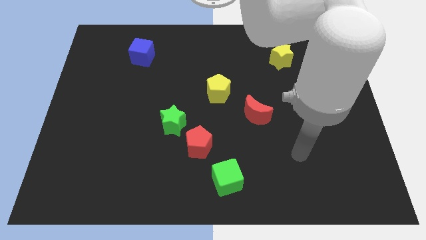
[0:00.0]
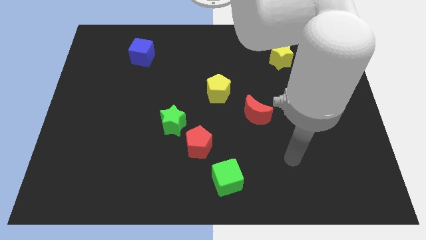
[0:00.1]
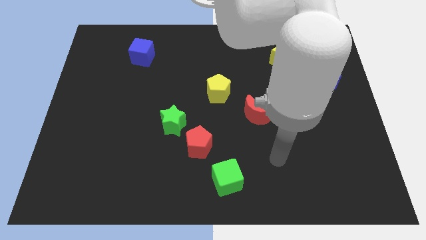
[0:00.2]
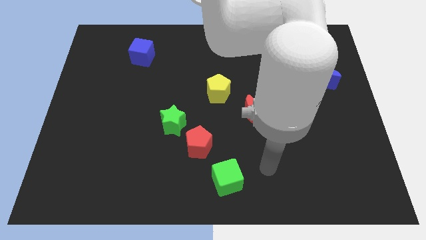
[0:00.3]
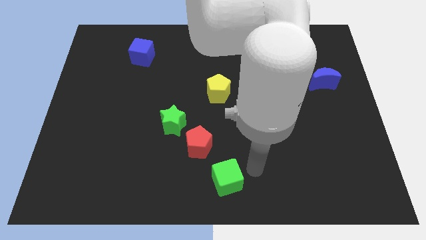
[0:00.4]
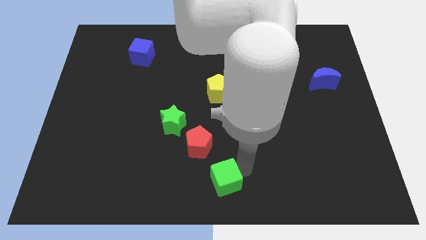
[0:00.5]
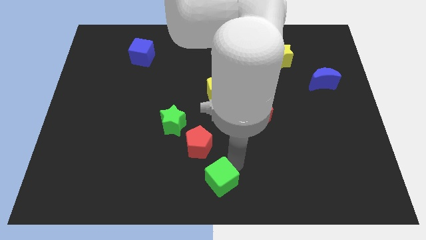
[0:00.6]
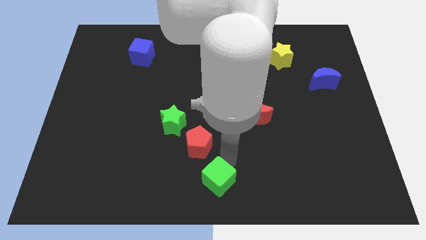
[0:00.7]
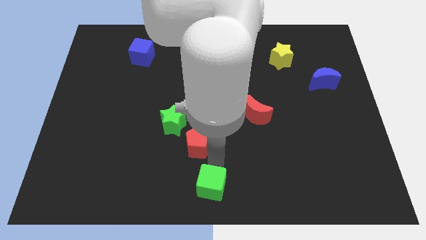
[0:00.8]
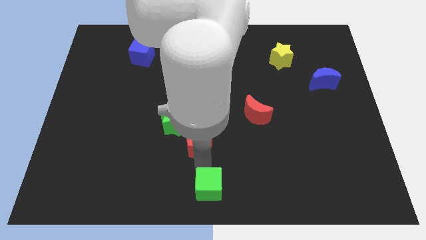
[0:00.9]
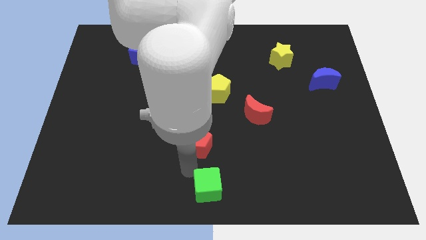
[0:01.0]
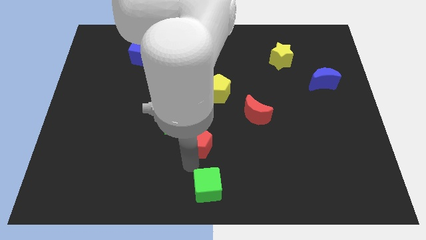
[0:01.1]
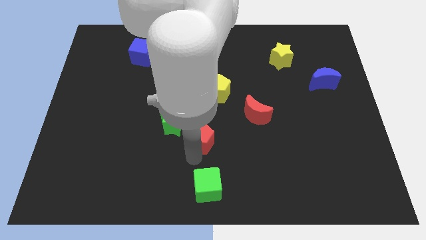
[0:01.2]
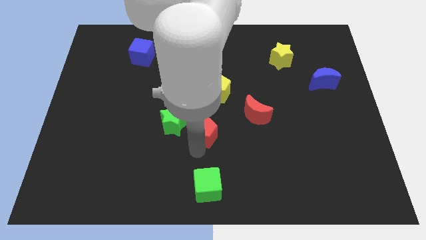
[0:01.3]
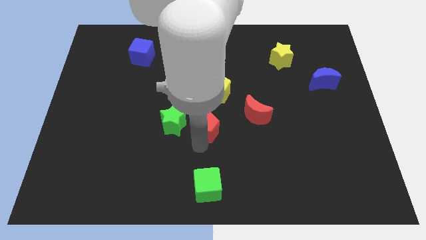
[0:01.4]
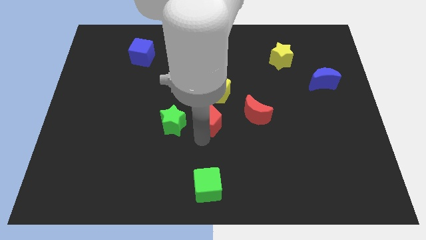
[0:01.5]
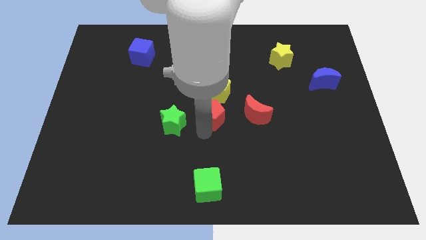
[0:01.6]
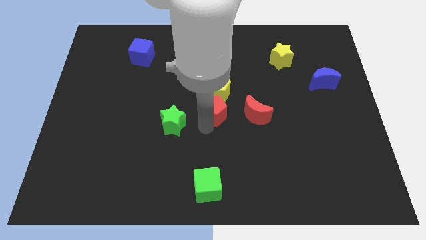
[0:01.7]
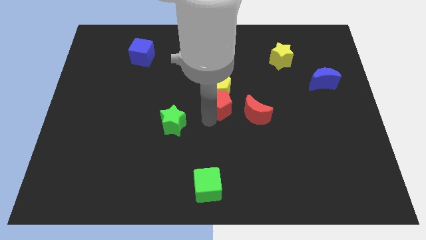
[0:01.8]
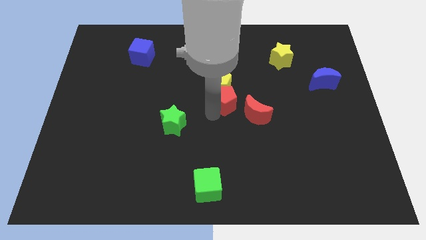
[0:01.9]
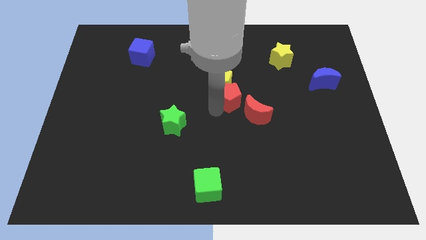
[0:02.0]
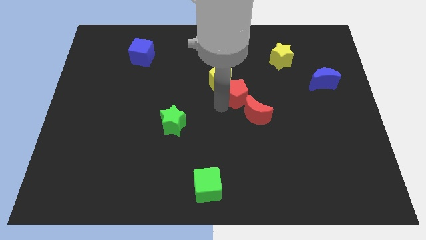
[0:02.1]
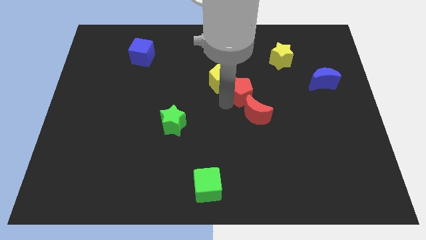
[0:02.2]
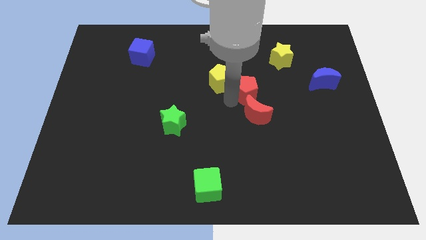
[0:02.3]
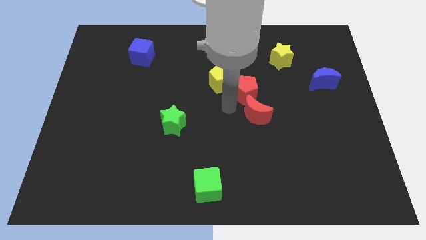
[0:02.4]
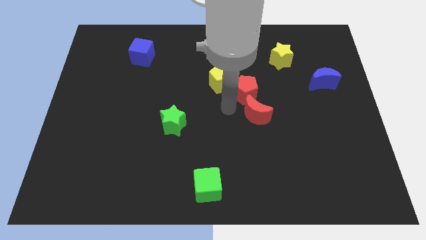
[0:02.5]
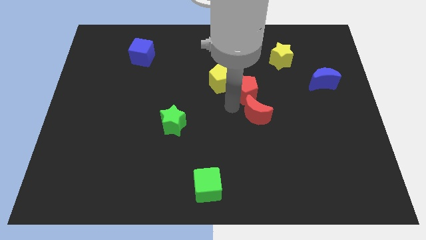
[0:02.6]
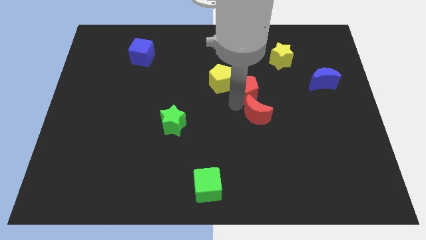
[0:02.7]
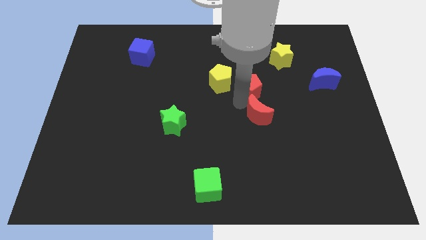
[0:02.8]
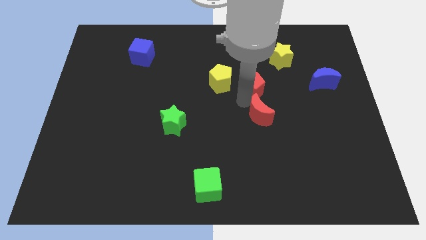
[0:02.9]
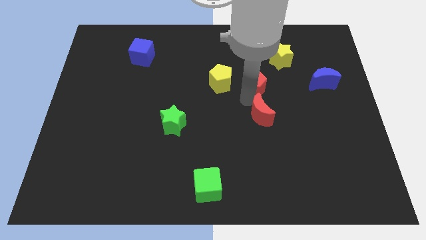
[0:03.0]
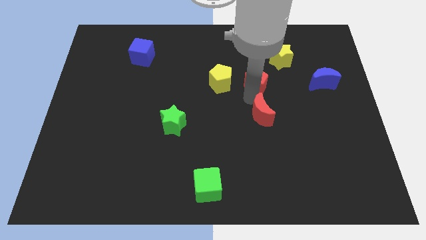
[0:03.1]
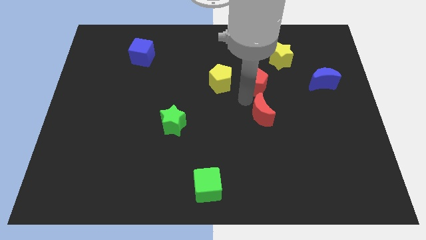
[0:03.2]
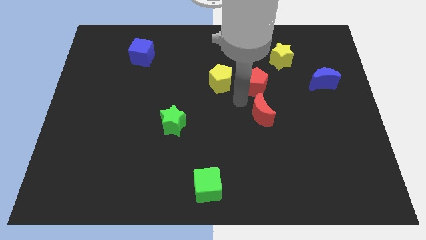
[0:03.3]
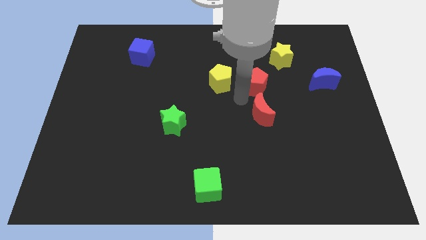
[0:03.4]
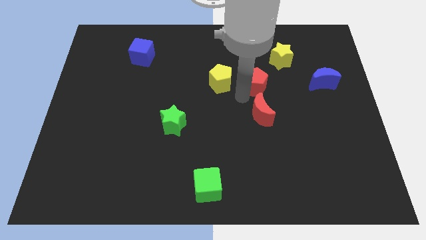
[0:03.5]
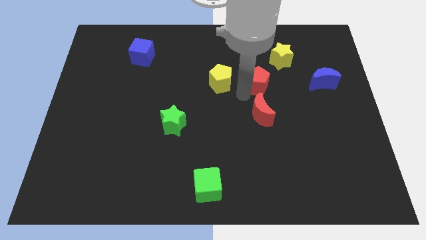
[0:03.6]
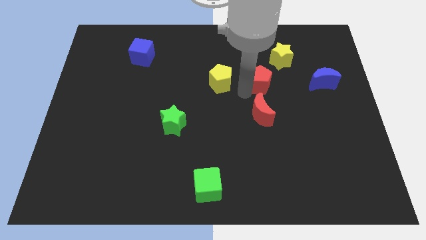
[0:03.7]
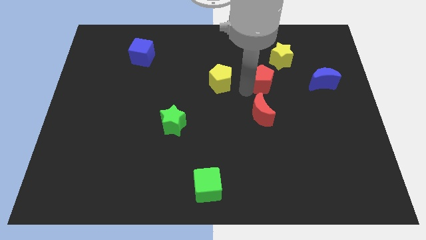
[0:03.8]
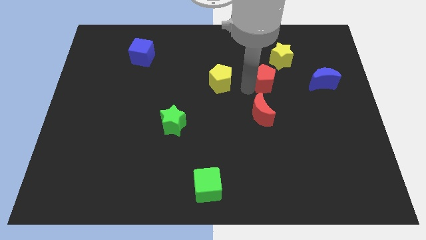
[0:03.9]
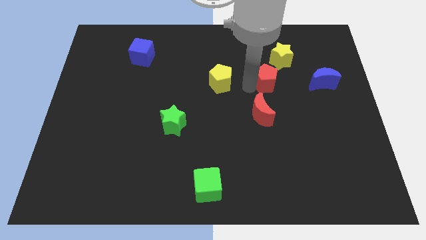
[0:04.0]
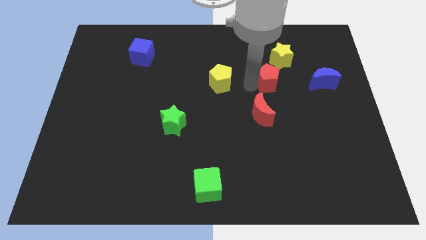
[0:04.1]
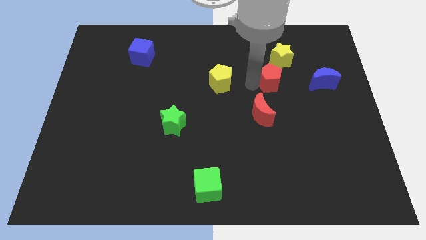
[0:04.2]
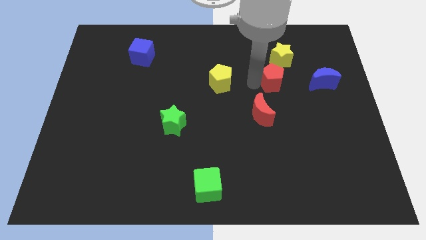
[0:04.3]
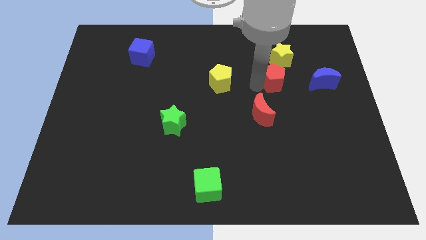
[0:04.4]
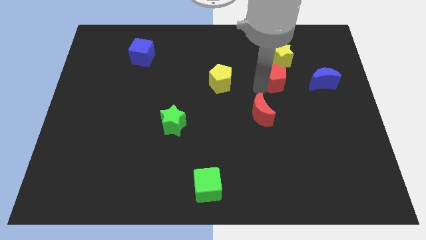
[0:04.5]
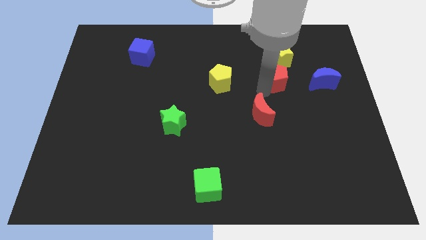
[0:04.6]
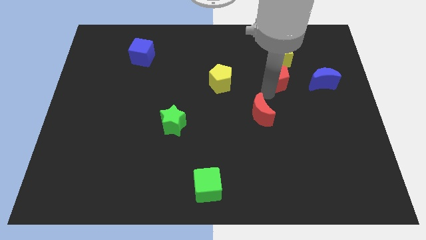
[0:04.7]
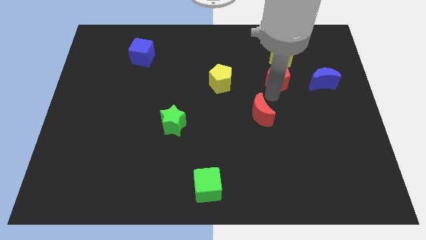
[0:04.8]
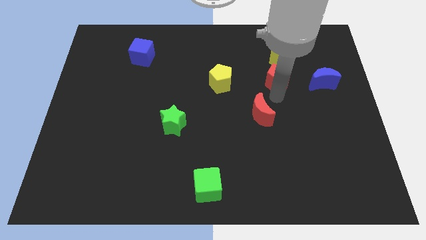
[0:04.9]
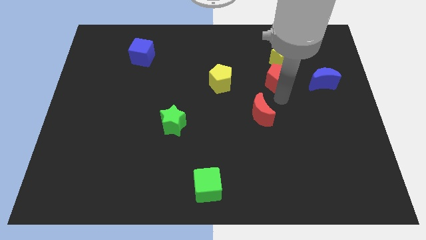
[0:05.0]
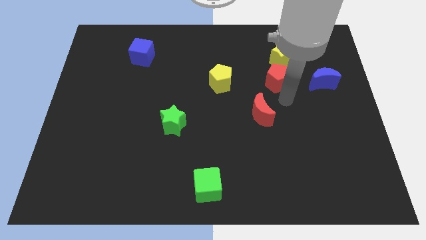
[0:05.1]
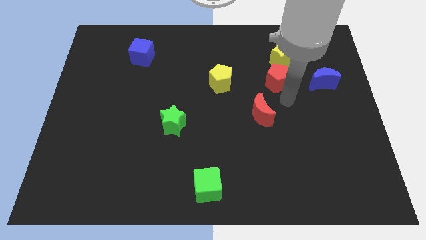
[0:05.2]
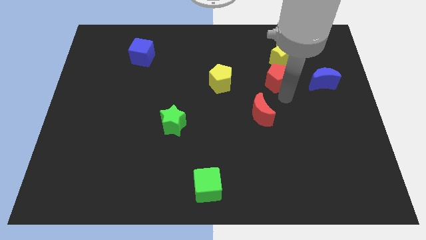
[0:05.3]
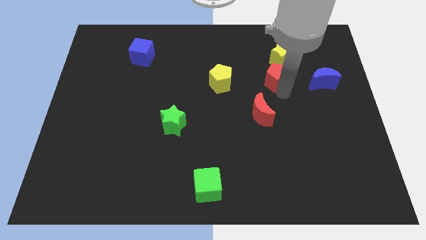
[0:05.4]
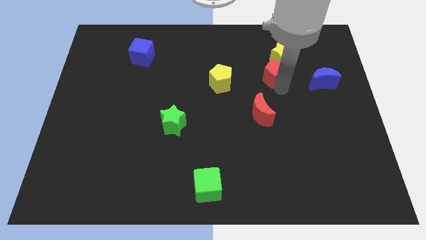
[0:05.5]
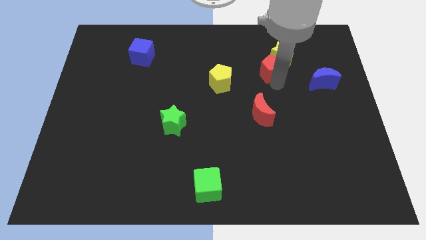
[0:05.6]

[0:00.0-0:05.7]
slide the red pentagon next to the yellow star

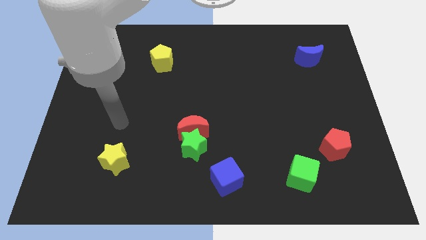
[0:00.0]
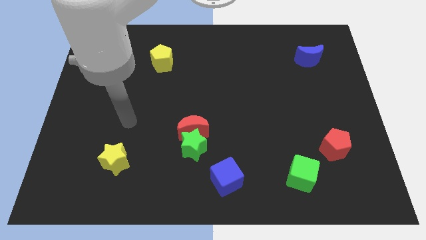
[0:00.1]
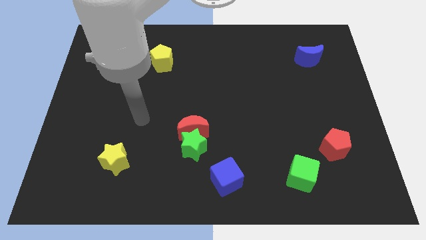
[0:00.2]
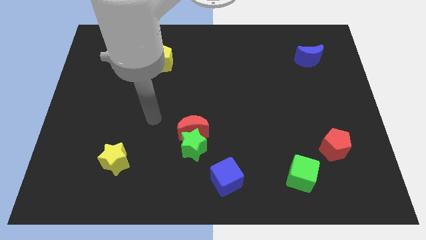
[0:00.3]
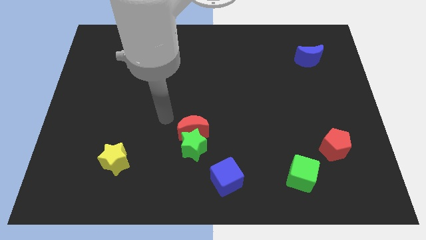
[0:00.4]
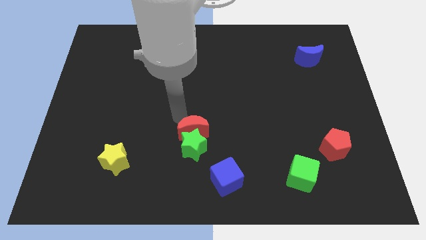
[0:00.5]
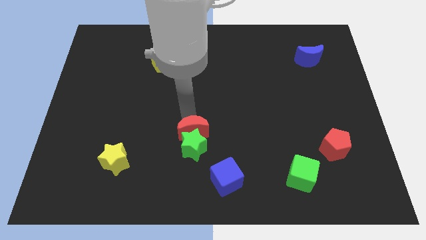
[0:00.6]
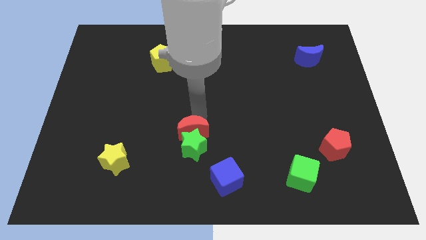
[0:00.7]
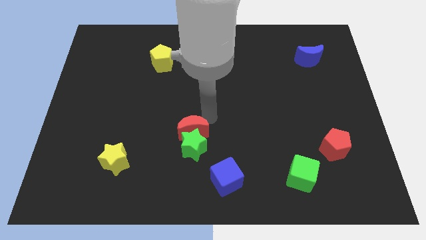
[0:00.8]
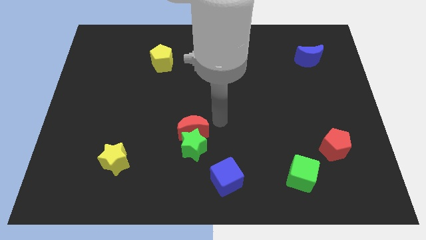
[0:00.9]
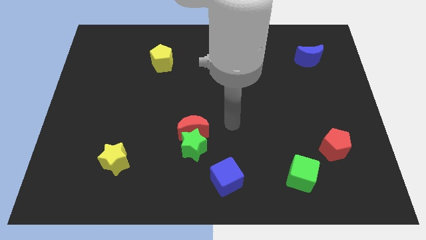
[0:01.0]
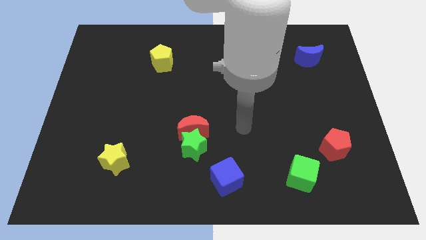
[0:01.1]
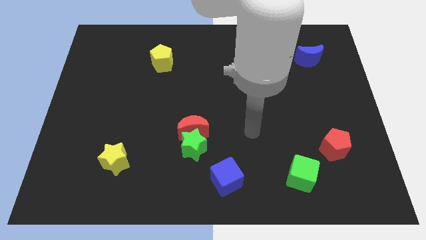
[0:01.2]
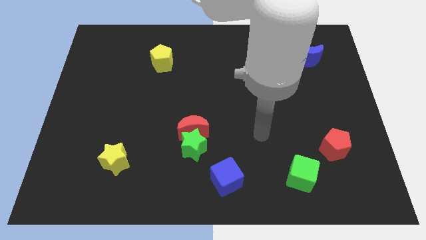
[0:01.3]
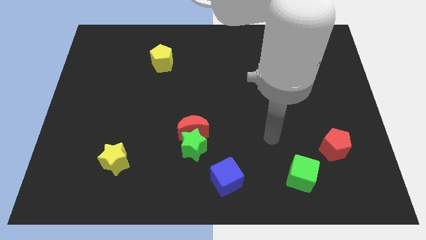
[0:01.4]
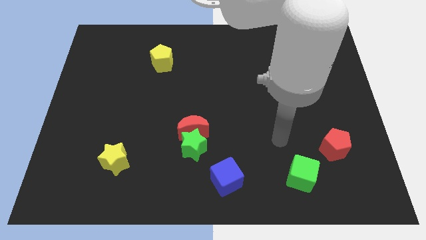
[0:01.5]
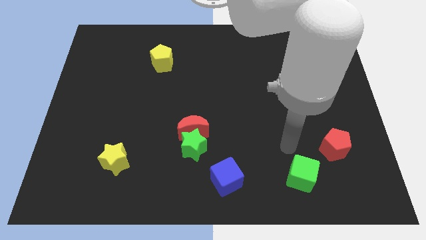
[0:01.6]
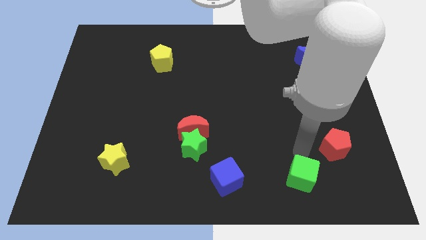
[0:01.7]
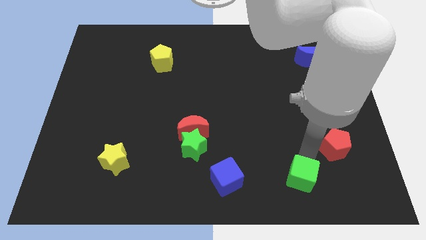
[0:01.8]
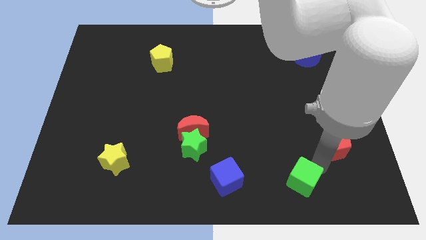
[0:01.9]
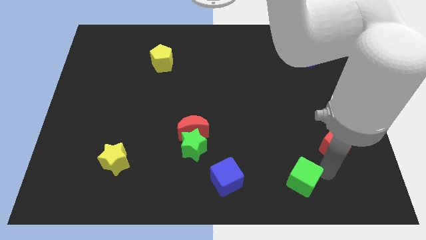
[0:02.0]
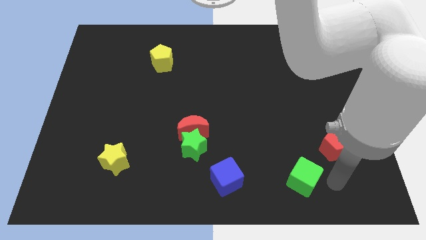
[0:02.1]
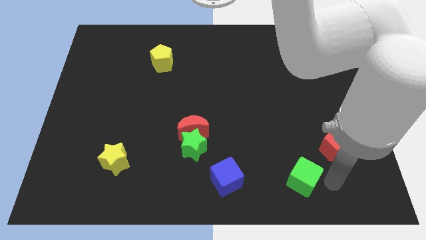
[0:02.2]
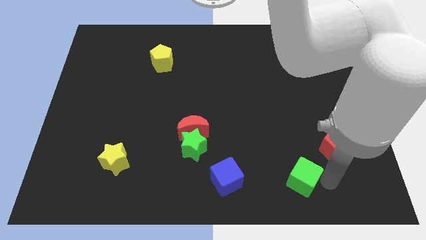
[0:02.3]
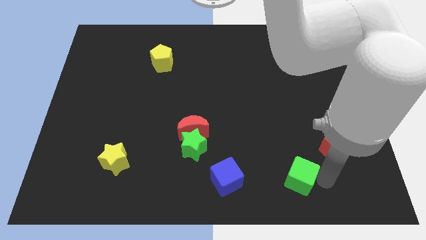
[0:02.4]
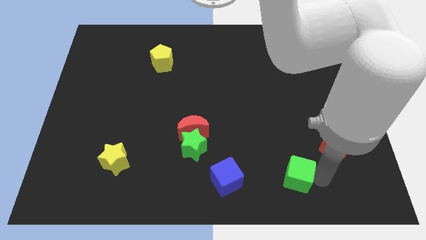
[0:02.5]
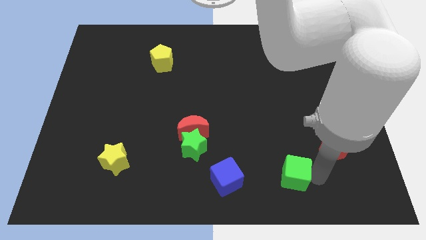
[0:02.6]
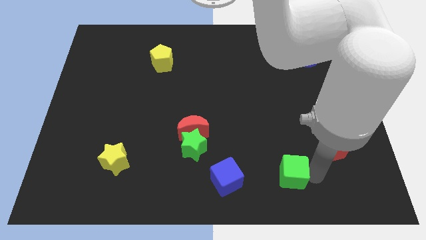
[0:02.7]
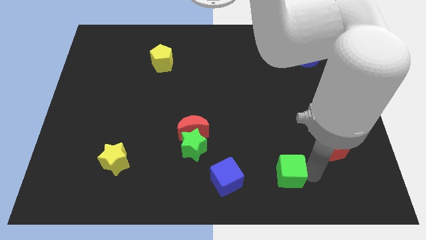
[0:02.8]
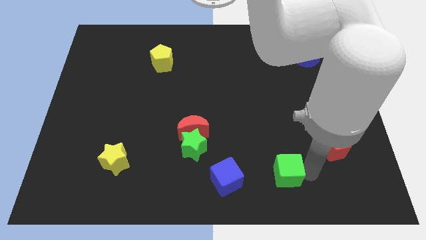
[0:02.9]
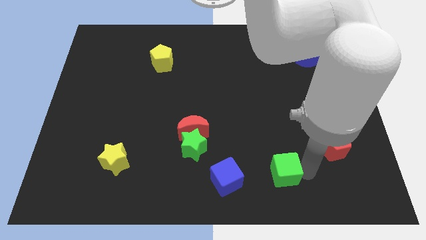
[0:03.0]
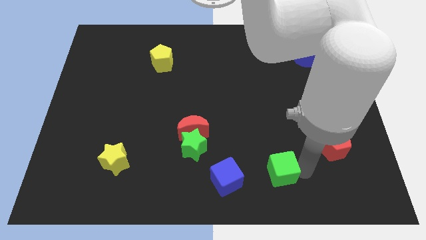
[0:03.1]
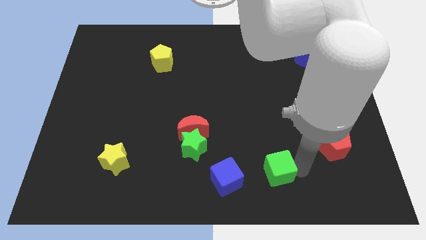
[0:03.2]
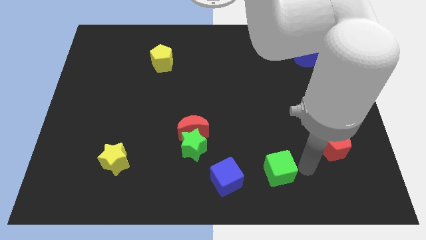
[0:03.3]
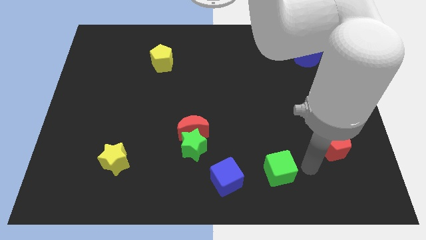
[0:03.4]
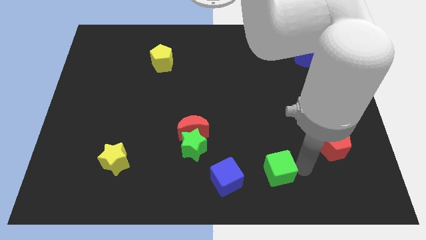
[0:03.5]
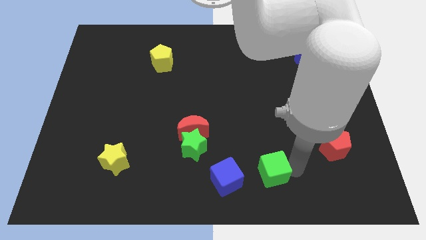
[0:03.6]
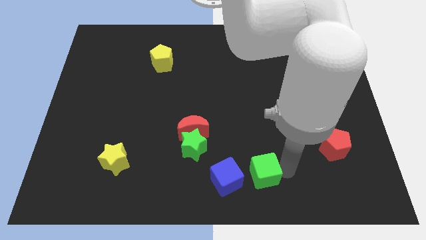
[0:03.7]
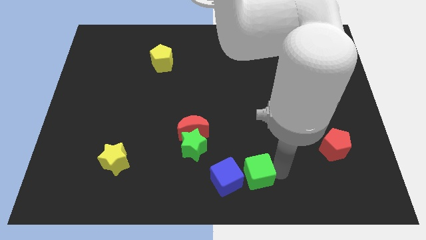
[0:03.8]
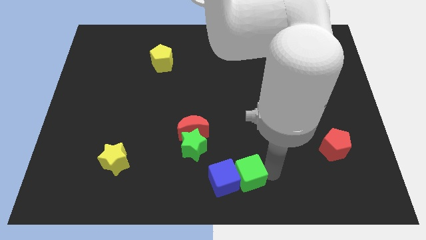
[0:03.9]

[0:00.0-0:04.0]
move the green cube to the blue cube
